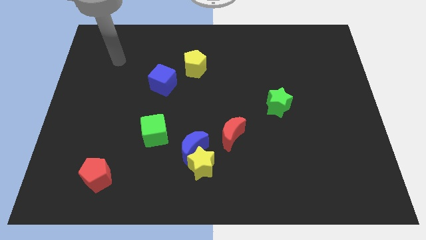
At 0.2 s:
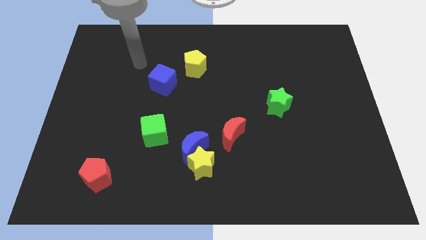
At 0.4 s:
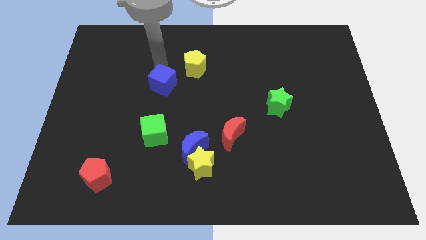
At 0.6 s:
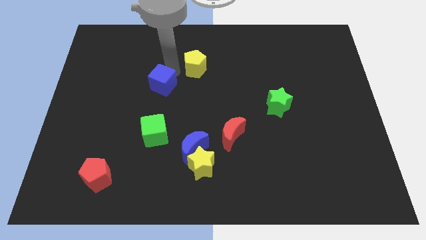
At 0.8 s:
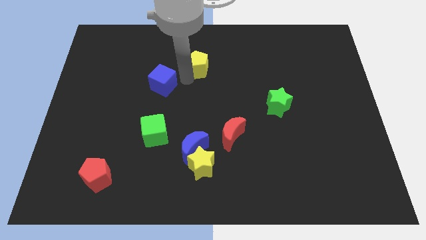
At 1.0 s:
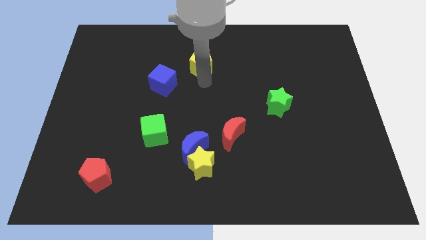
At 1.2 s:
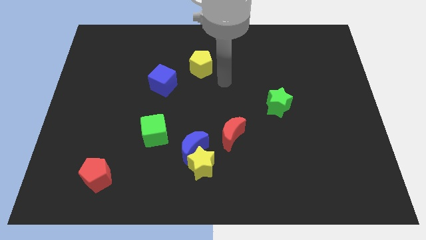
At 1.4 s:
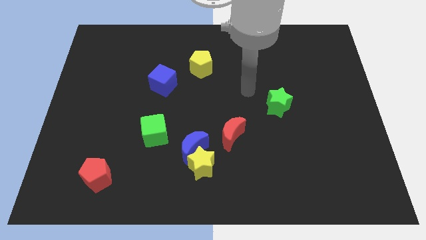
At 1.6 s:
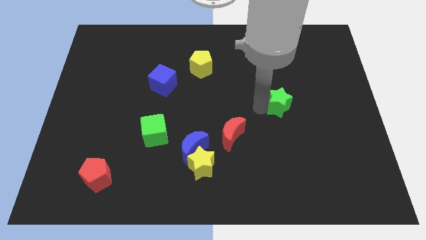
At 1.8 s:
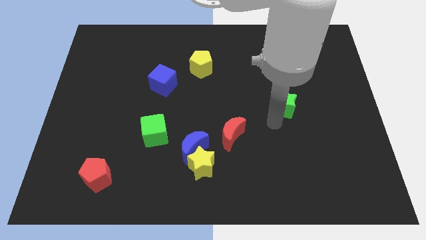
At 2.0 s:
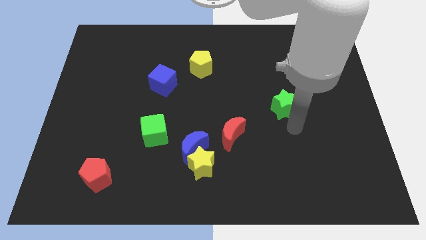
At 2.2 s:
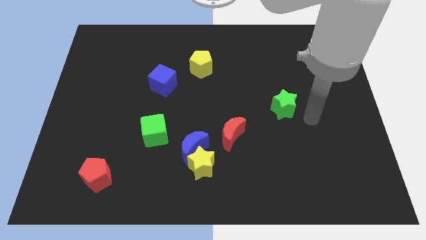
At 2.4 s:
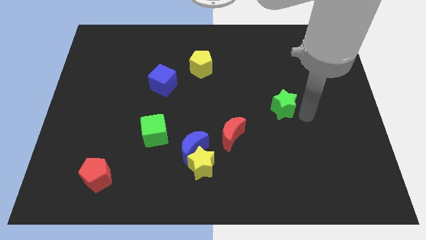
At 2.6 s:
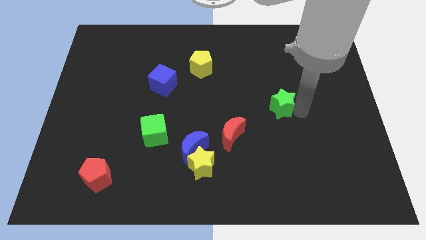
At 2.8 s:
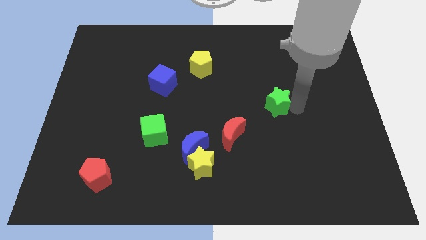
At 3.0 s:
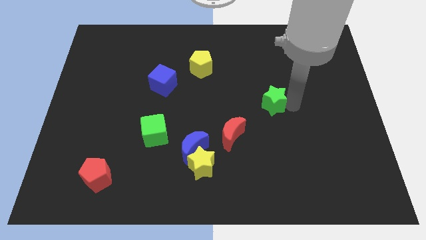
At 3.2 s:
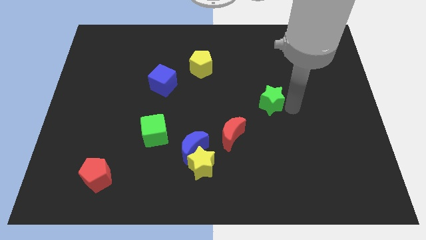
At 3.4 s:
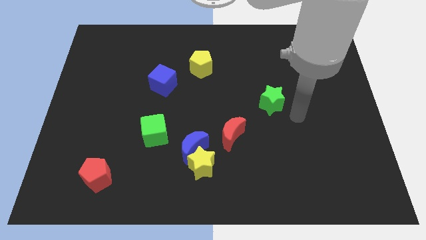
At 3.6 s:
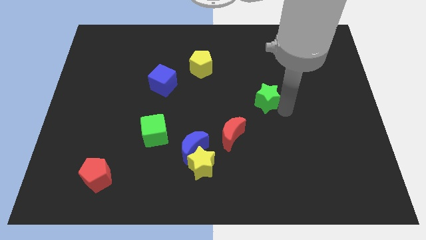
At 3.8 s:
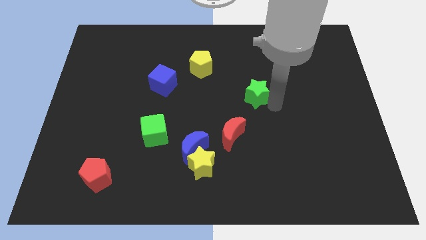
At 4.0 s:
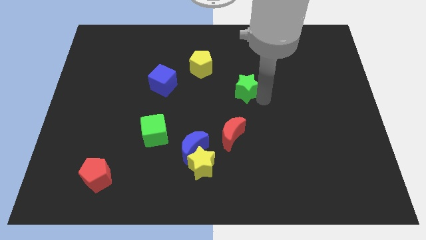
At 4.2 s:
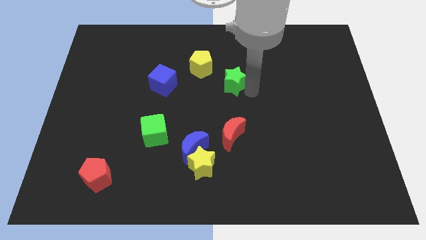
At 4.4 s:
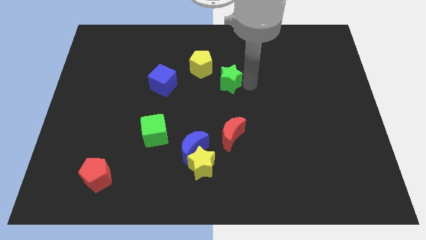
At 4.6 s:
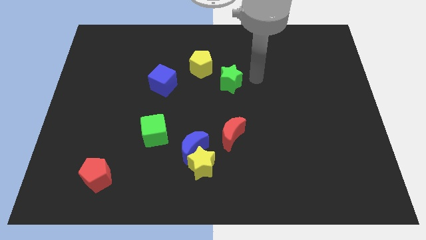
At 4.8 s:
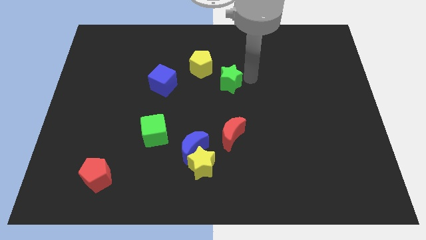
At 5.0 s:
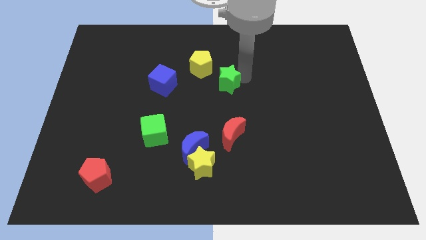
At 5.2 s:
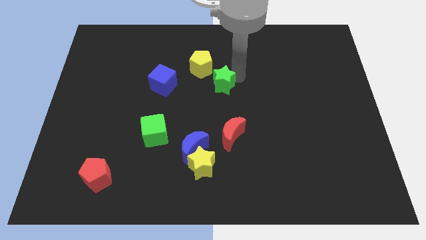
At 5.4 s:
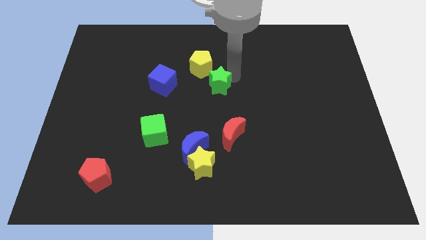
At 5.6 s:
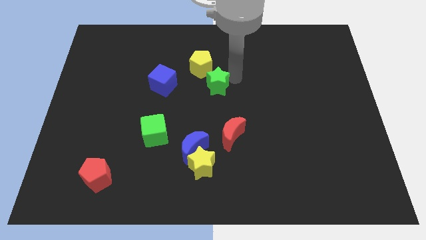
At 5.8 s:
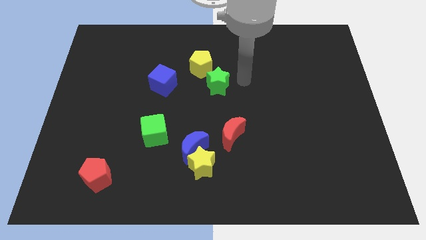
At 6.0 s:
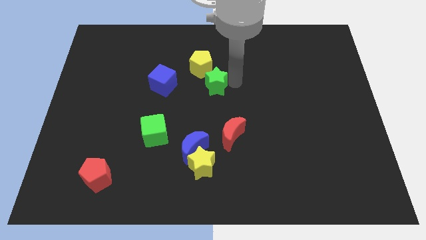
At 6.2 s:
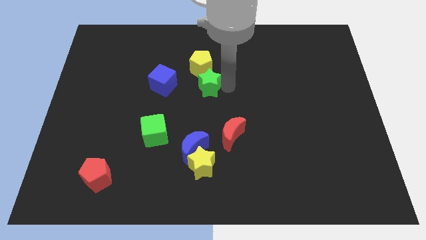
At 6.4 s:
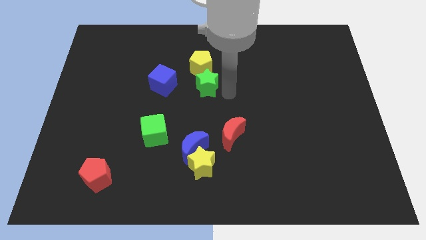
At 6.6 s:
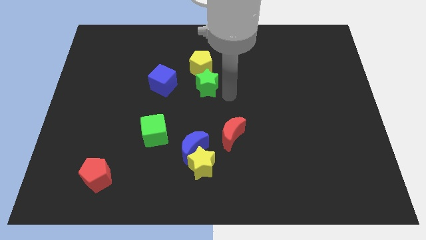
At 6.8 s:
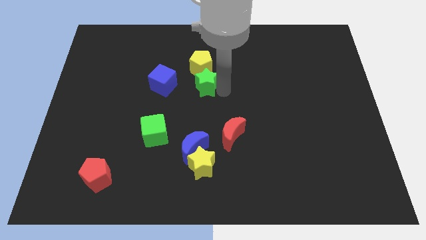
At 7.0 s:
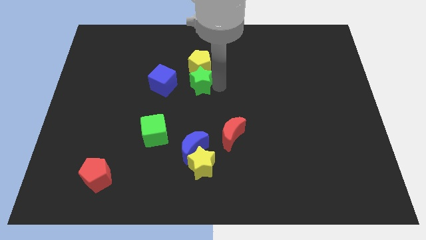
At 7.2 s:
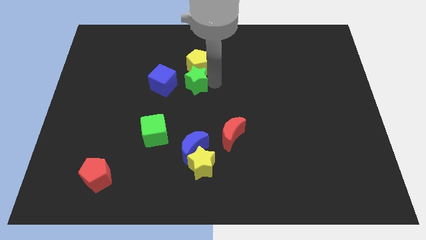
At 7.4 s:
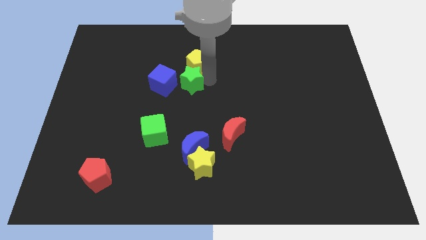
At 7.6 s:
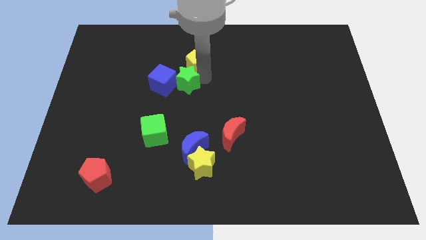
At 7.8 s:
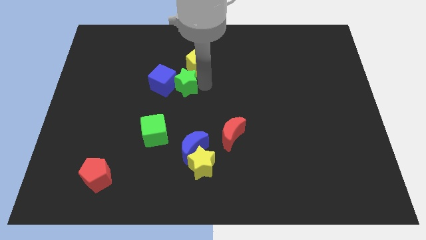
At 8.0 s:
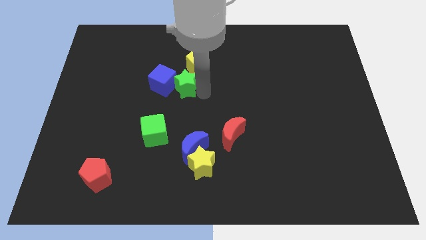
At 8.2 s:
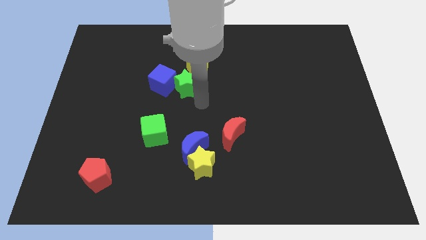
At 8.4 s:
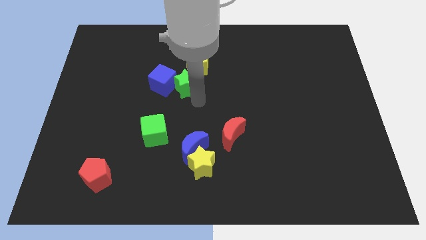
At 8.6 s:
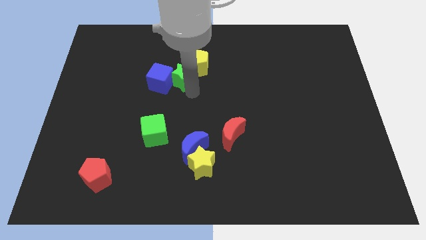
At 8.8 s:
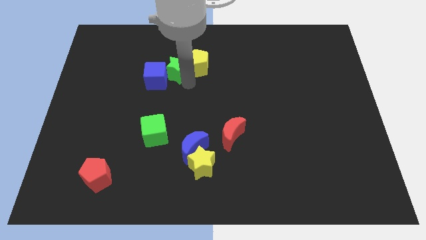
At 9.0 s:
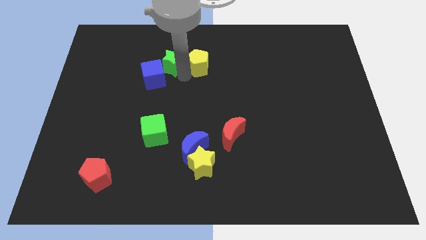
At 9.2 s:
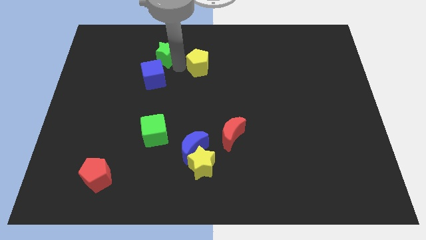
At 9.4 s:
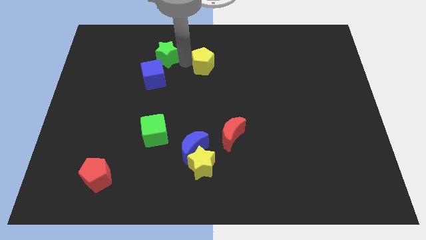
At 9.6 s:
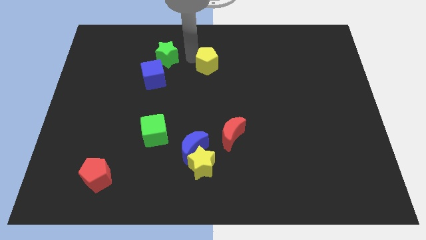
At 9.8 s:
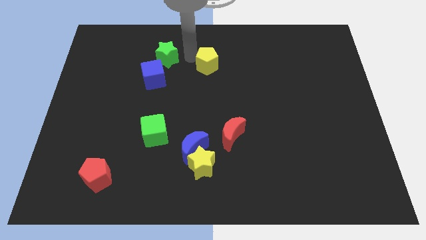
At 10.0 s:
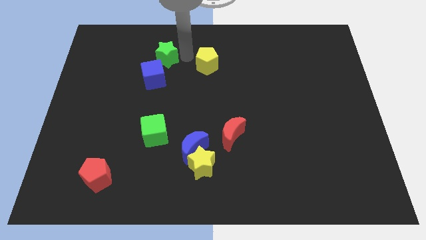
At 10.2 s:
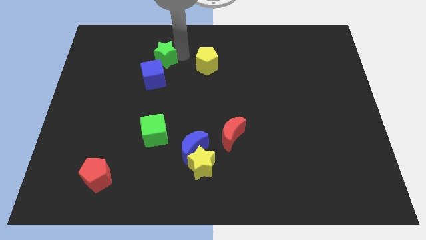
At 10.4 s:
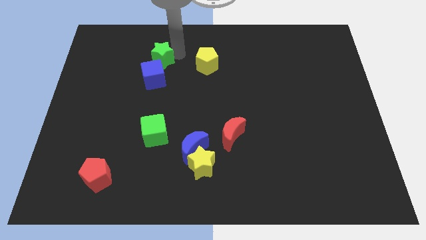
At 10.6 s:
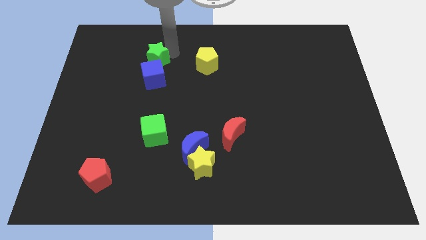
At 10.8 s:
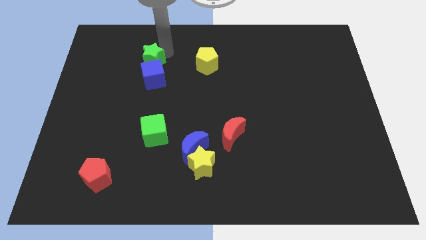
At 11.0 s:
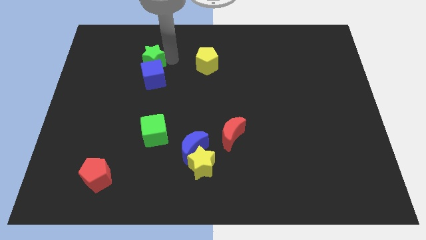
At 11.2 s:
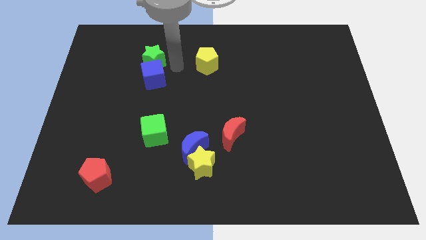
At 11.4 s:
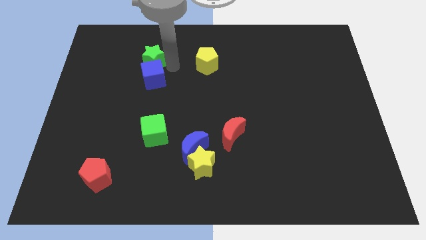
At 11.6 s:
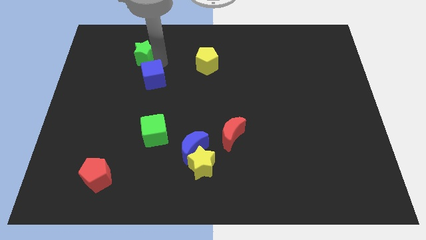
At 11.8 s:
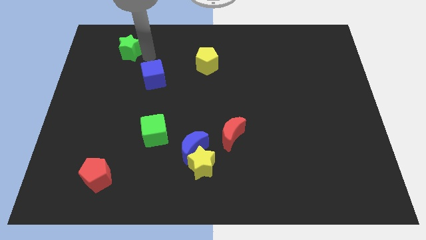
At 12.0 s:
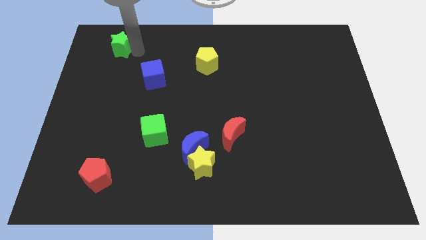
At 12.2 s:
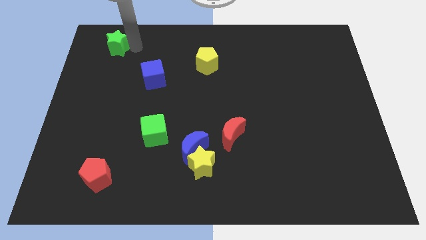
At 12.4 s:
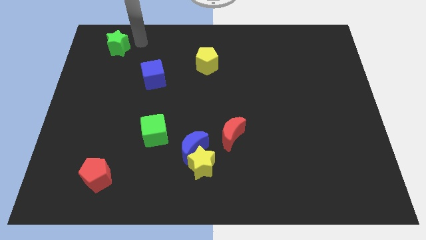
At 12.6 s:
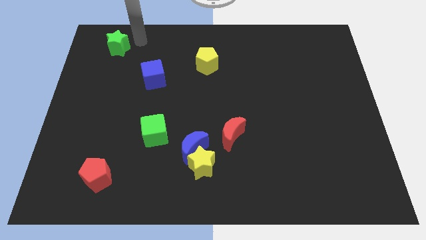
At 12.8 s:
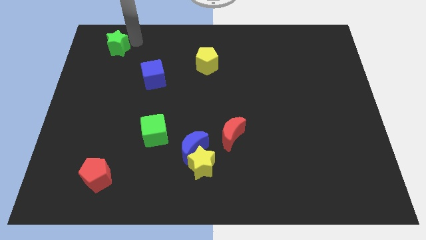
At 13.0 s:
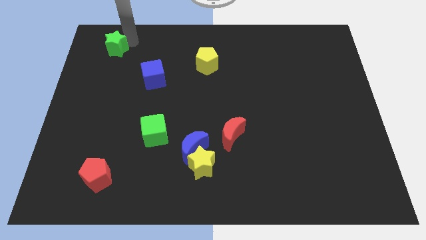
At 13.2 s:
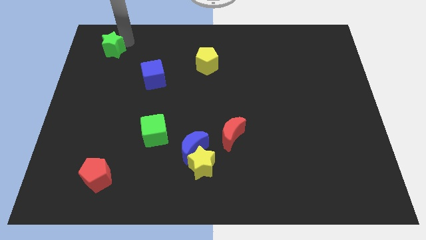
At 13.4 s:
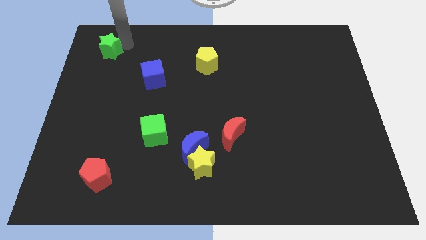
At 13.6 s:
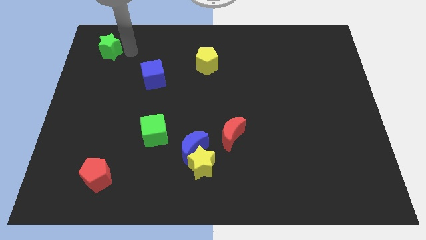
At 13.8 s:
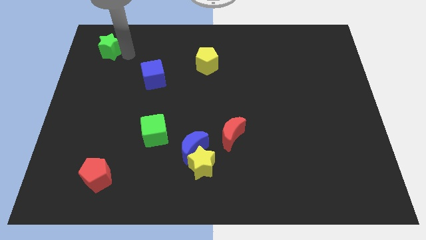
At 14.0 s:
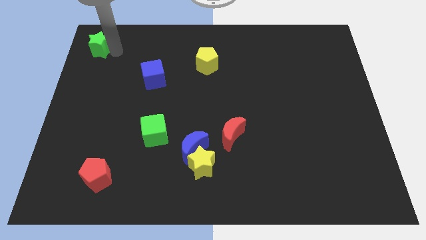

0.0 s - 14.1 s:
move the green star to the top left corner
